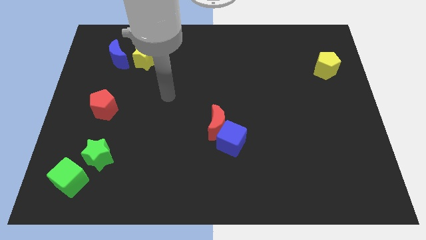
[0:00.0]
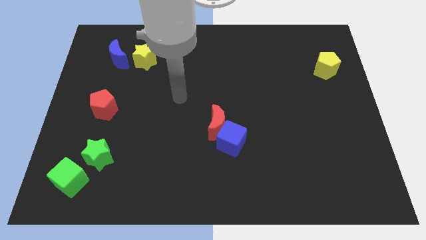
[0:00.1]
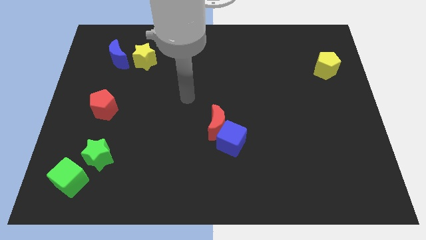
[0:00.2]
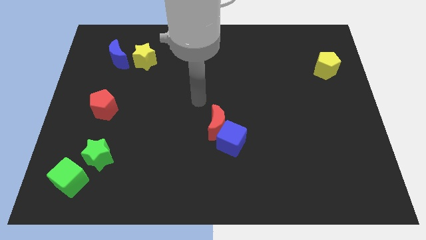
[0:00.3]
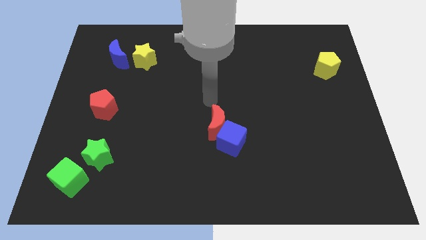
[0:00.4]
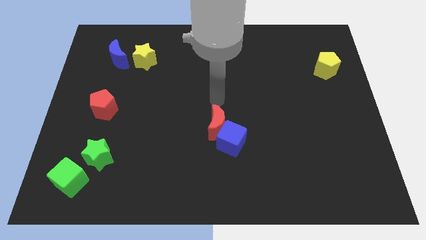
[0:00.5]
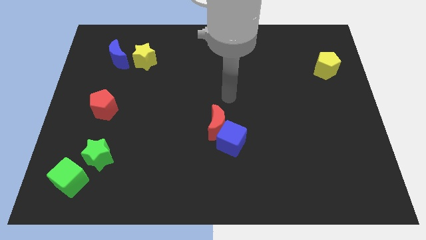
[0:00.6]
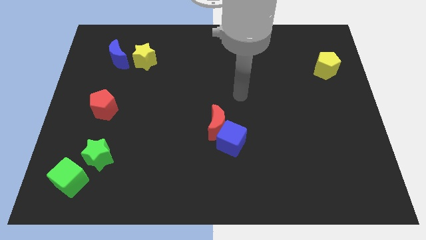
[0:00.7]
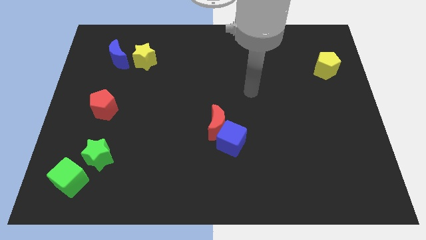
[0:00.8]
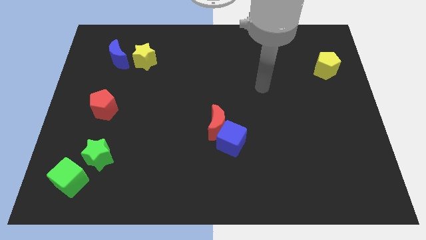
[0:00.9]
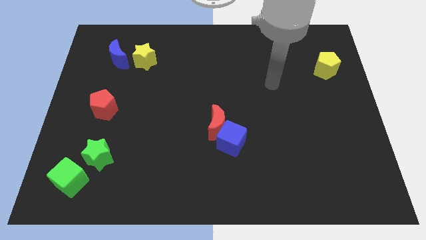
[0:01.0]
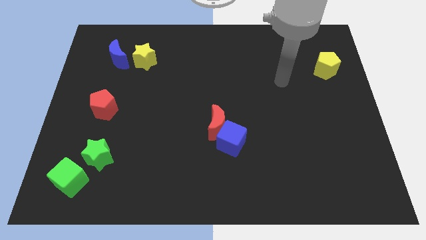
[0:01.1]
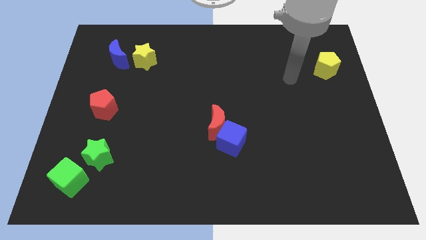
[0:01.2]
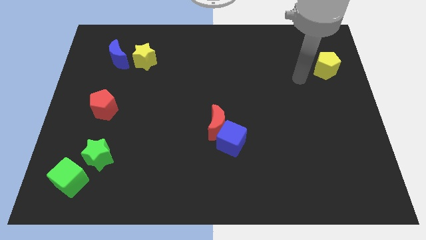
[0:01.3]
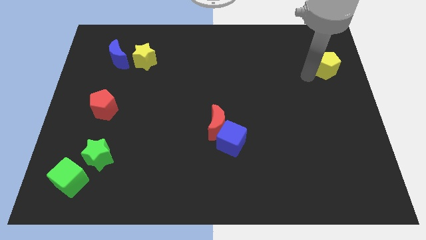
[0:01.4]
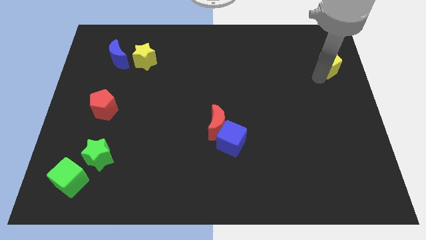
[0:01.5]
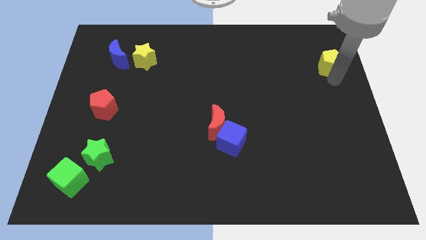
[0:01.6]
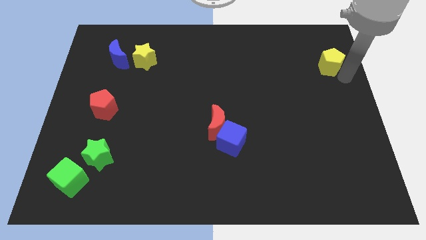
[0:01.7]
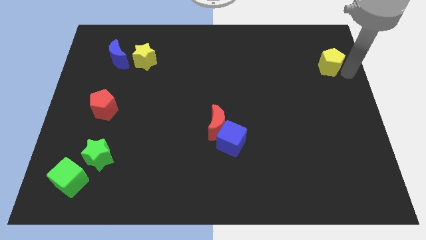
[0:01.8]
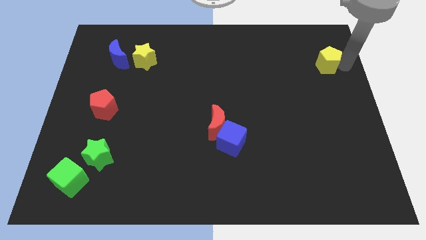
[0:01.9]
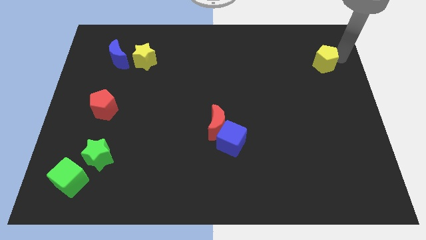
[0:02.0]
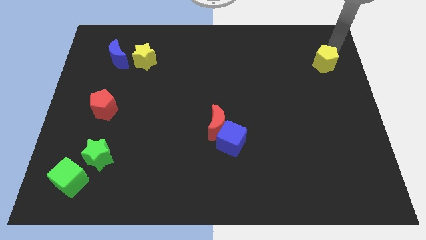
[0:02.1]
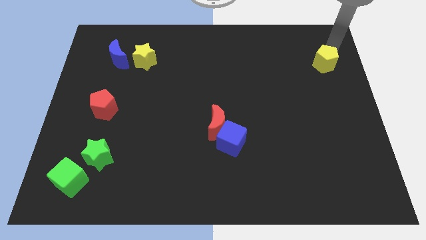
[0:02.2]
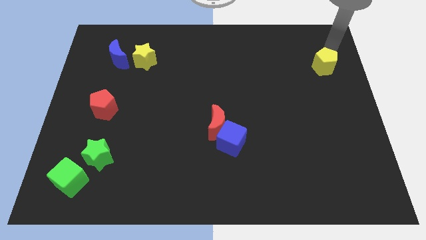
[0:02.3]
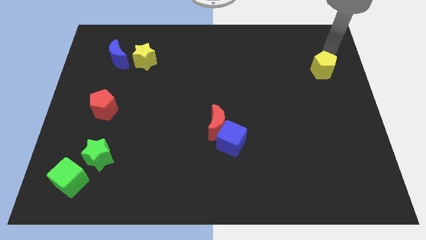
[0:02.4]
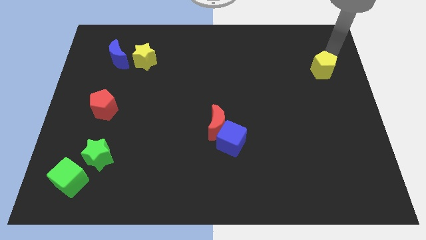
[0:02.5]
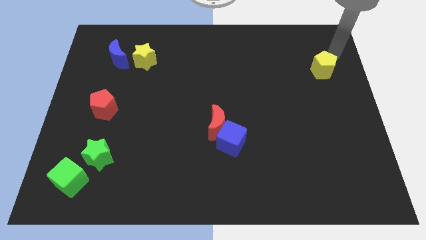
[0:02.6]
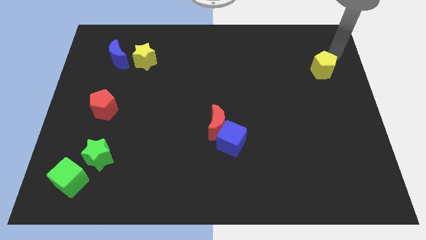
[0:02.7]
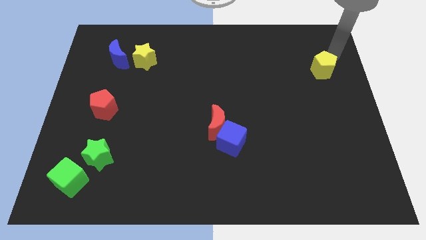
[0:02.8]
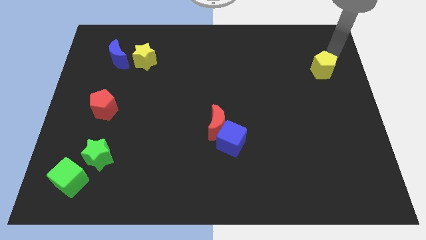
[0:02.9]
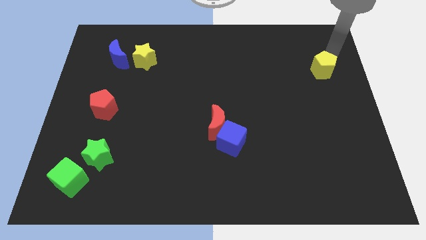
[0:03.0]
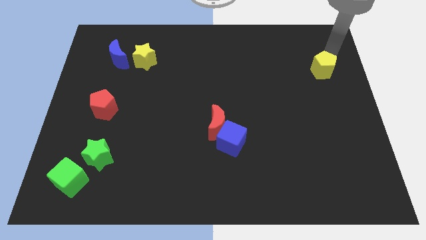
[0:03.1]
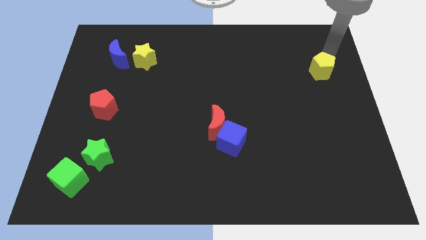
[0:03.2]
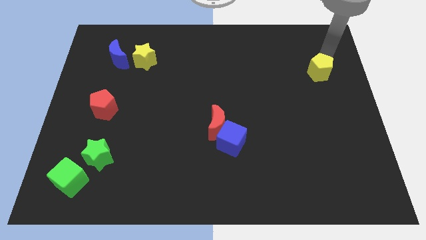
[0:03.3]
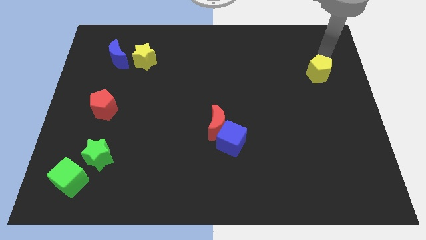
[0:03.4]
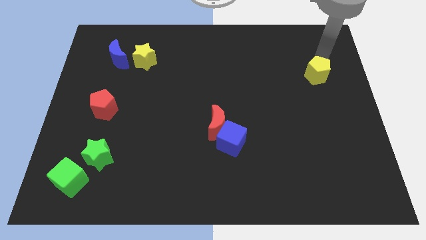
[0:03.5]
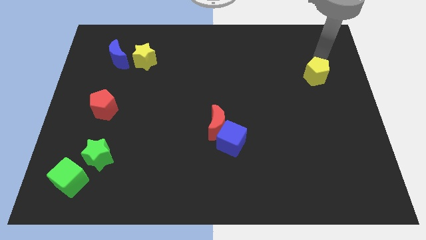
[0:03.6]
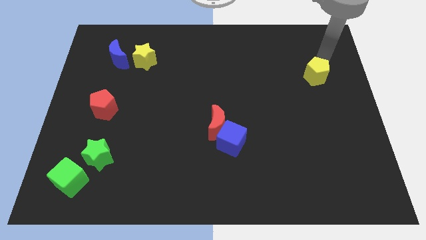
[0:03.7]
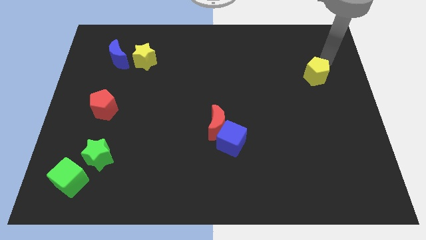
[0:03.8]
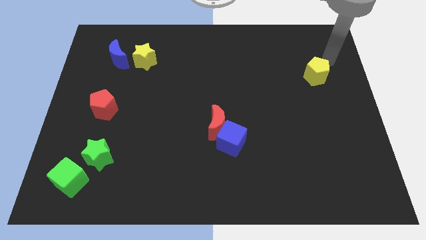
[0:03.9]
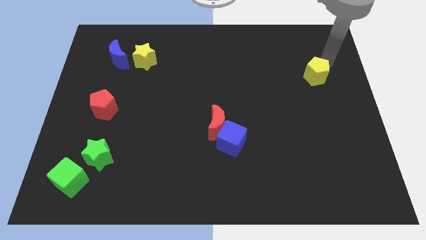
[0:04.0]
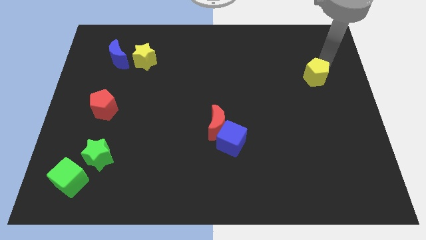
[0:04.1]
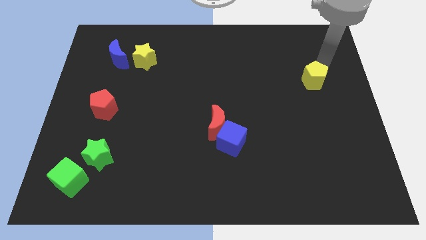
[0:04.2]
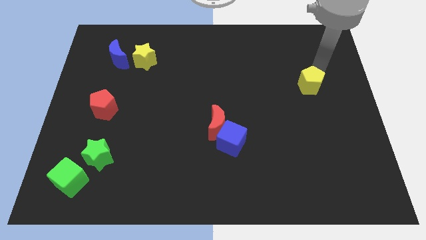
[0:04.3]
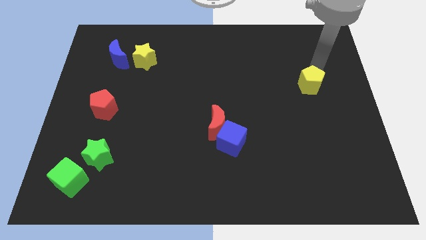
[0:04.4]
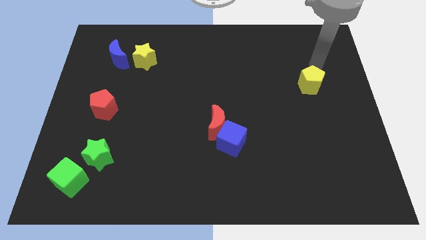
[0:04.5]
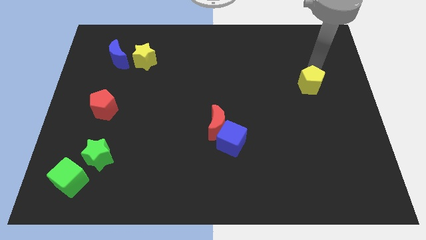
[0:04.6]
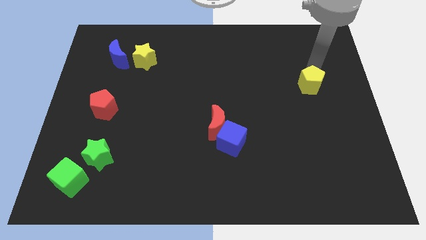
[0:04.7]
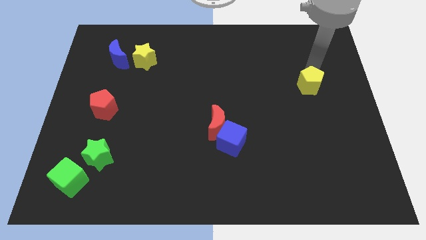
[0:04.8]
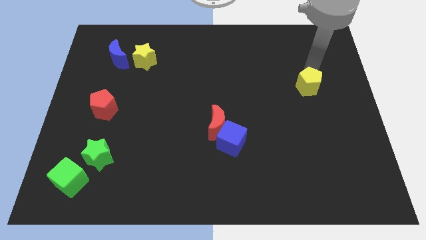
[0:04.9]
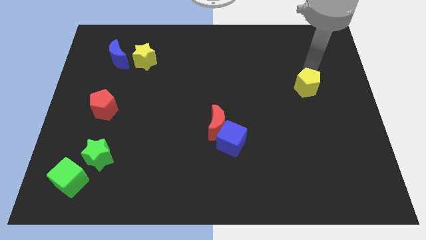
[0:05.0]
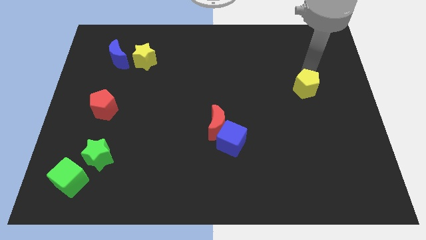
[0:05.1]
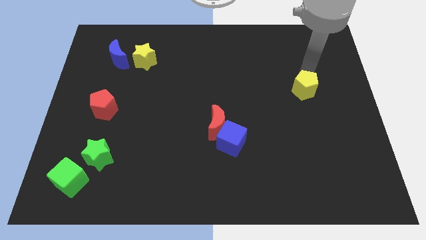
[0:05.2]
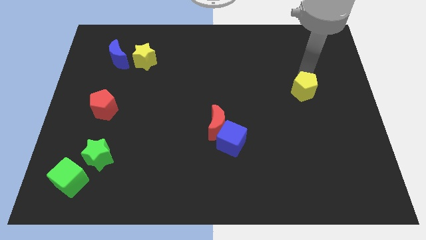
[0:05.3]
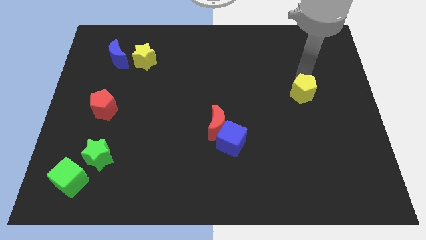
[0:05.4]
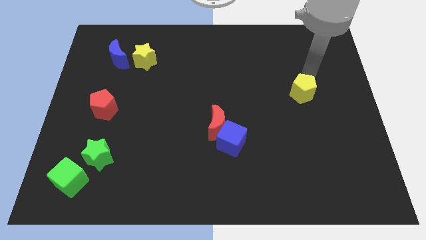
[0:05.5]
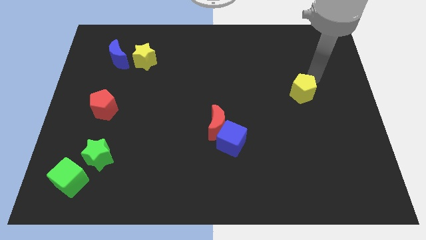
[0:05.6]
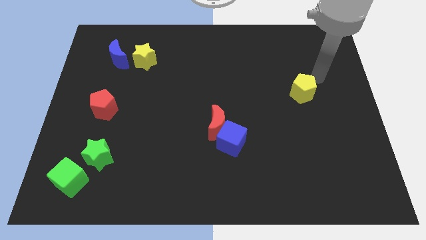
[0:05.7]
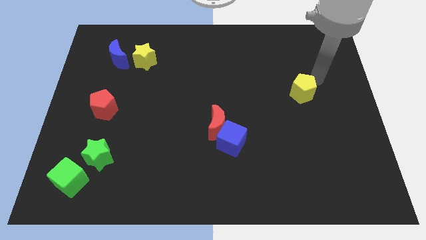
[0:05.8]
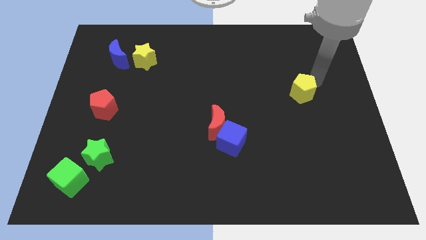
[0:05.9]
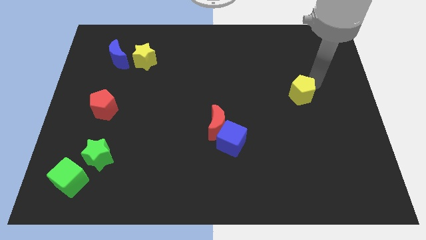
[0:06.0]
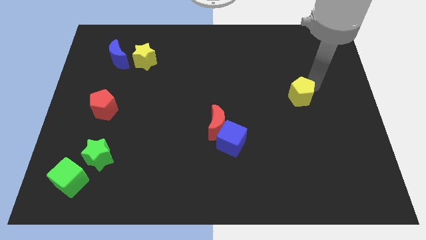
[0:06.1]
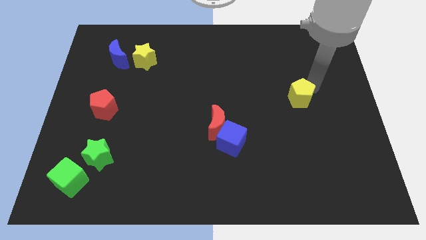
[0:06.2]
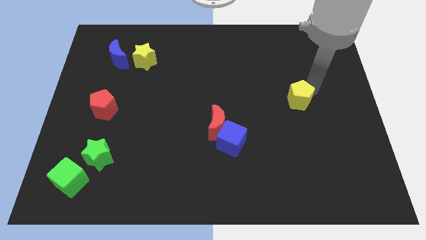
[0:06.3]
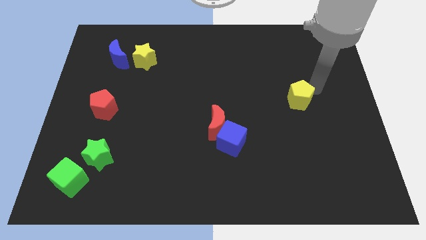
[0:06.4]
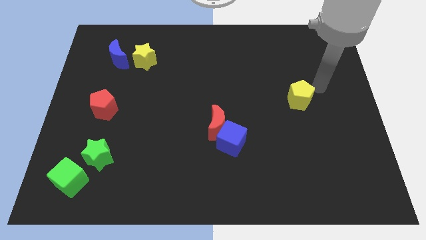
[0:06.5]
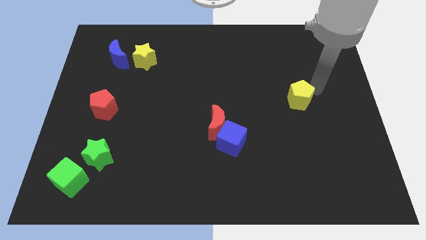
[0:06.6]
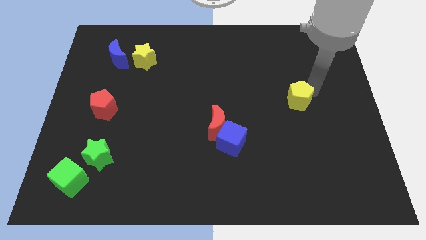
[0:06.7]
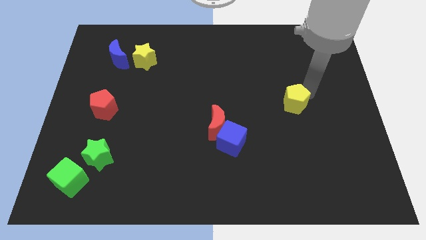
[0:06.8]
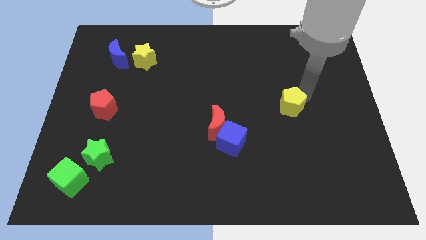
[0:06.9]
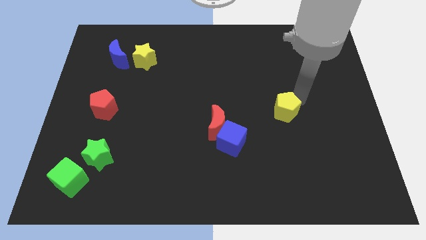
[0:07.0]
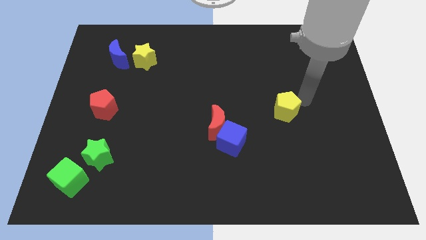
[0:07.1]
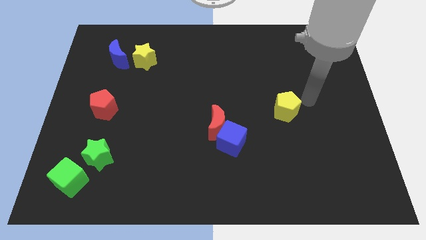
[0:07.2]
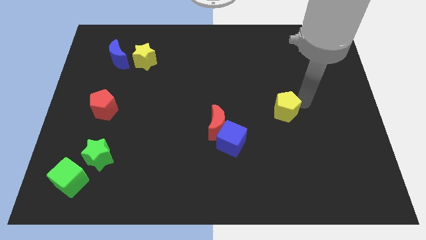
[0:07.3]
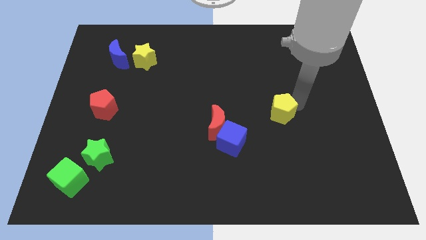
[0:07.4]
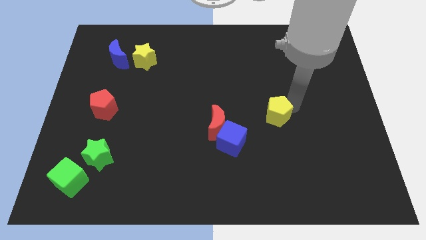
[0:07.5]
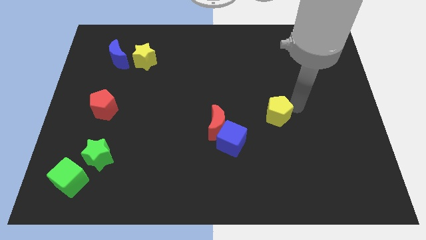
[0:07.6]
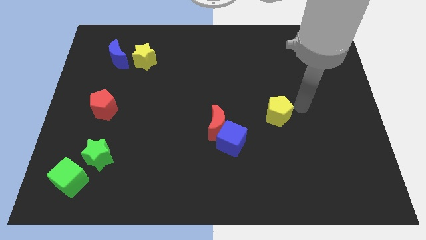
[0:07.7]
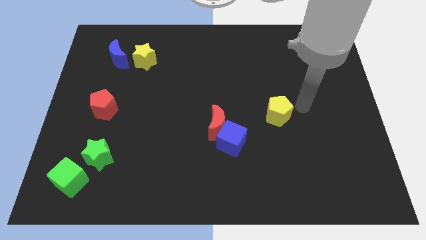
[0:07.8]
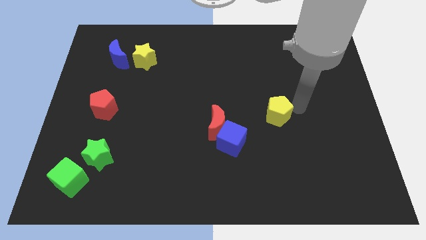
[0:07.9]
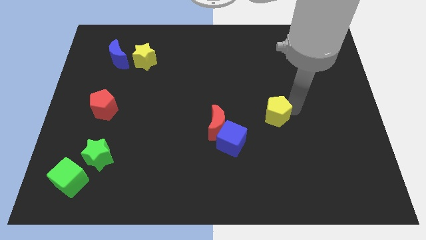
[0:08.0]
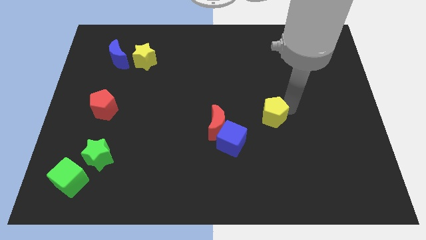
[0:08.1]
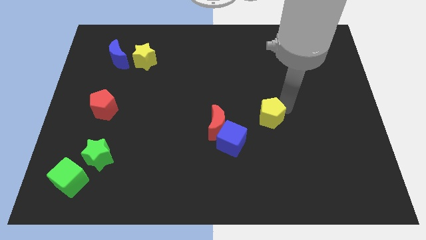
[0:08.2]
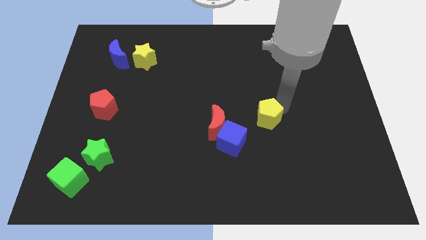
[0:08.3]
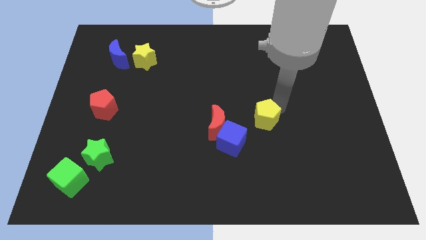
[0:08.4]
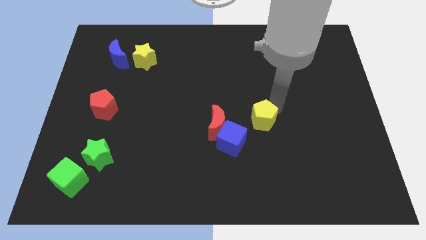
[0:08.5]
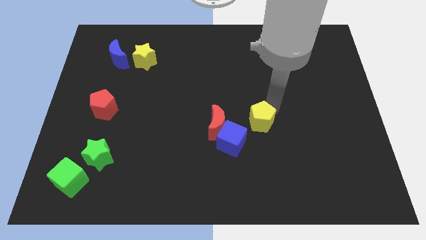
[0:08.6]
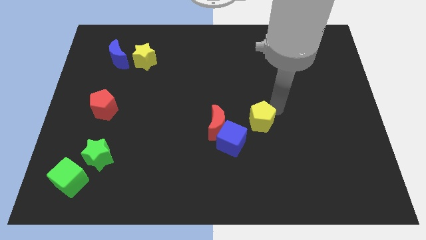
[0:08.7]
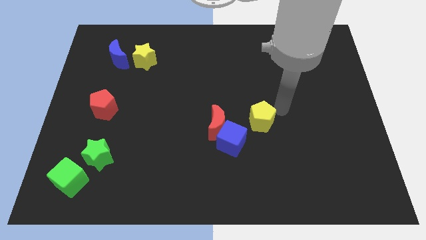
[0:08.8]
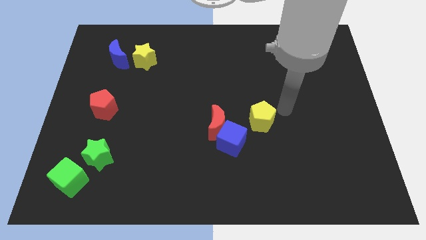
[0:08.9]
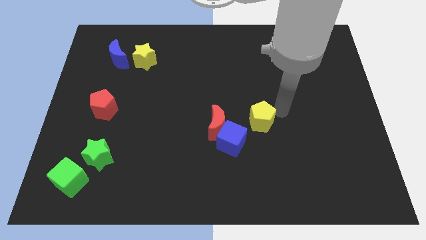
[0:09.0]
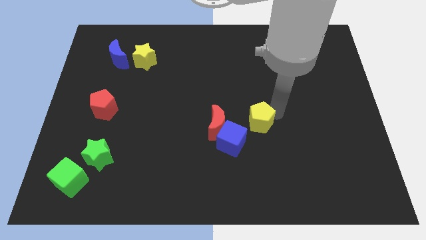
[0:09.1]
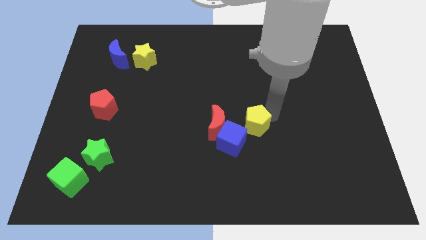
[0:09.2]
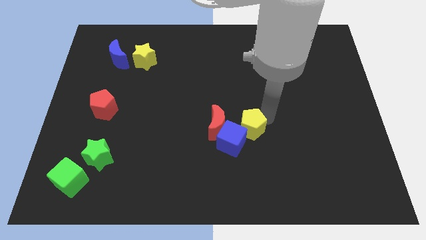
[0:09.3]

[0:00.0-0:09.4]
move the yellow pentagon close to the blue cube
